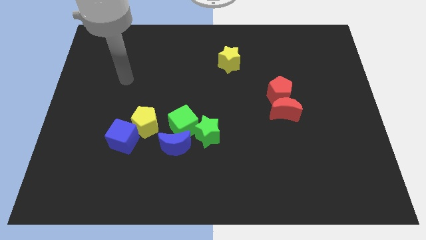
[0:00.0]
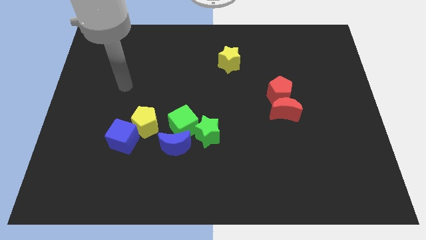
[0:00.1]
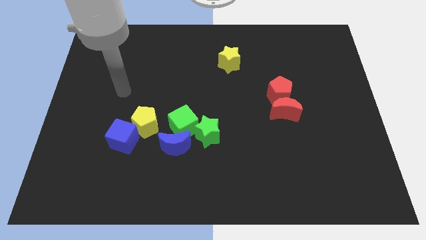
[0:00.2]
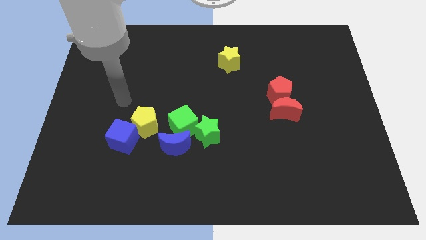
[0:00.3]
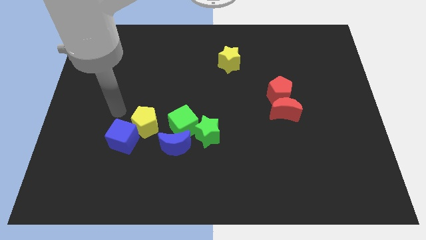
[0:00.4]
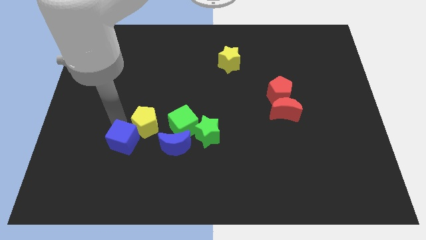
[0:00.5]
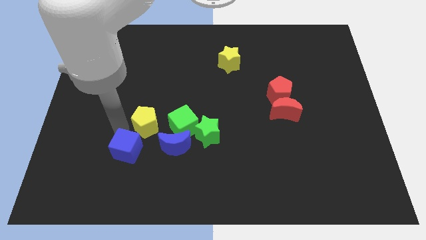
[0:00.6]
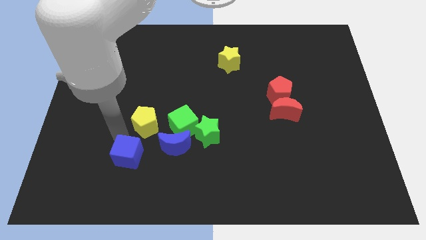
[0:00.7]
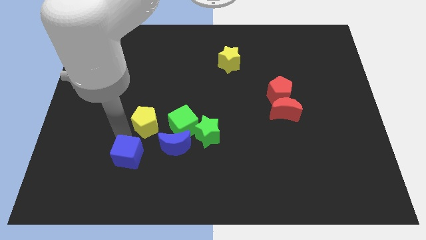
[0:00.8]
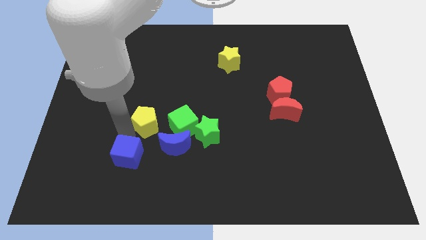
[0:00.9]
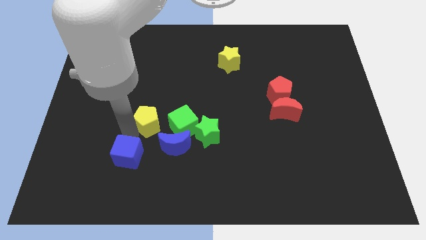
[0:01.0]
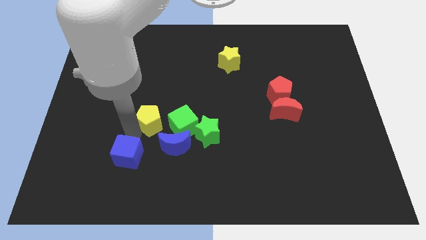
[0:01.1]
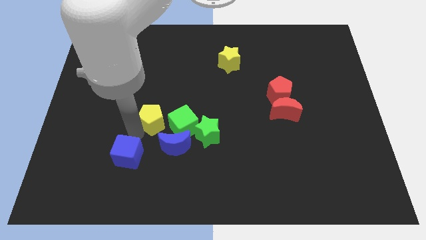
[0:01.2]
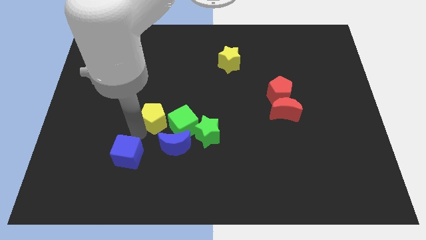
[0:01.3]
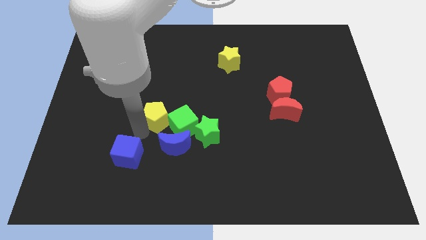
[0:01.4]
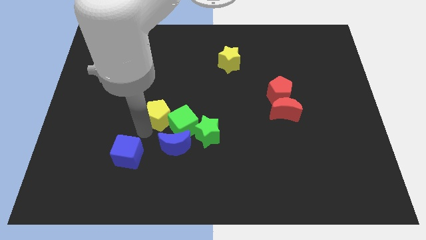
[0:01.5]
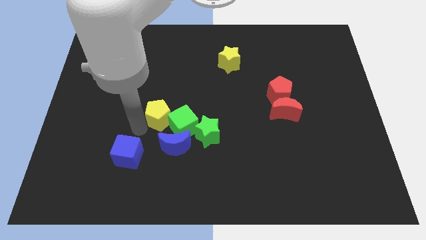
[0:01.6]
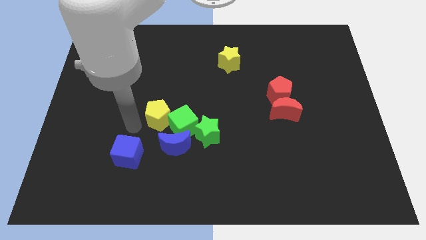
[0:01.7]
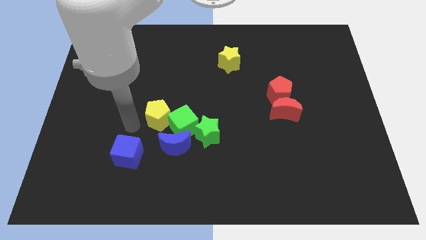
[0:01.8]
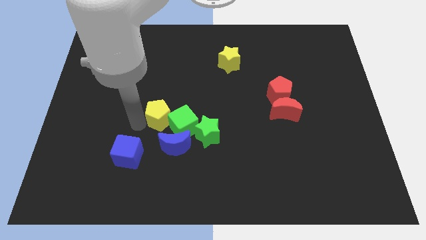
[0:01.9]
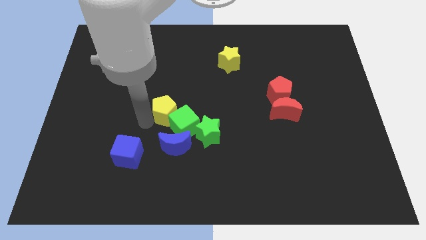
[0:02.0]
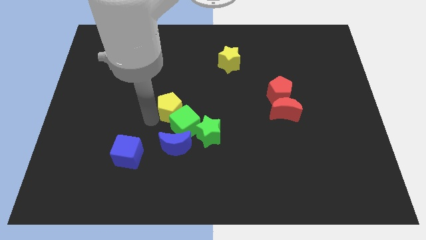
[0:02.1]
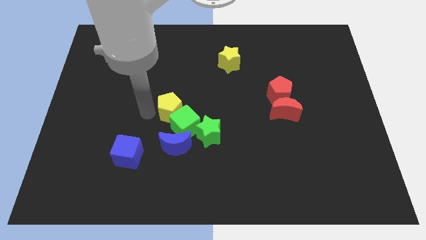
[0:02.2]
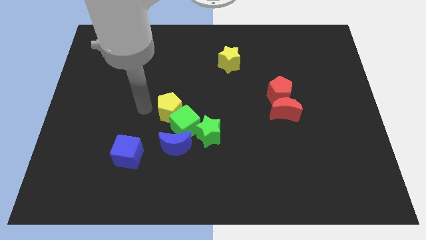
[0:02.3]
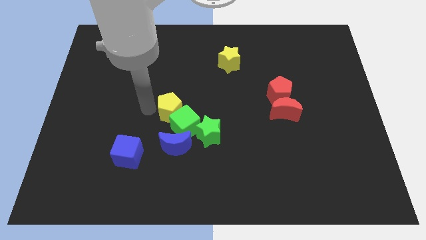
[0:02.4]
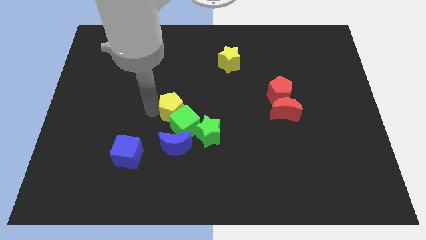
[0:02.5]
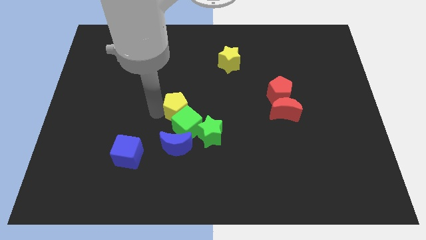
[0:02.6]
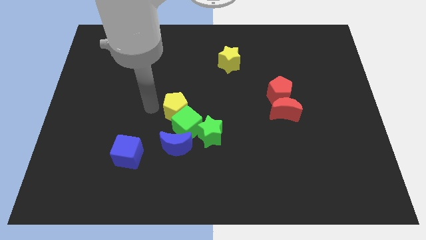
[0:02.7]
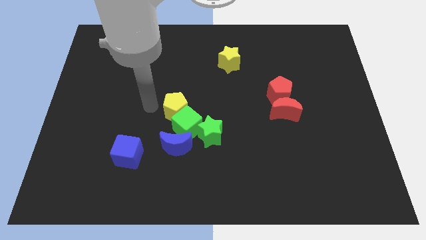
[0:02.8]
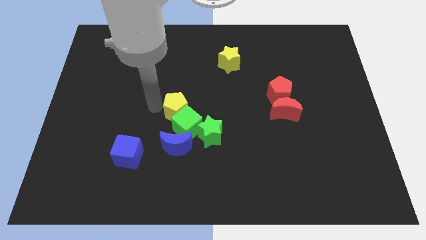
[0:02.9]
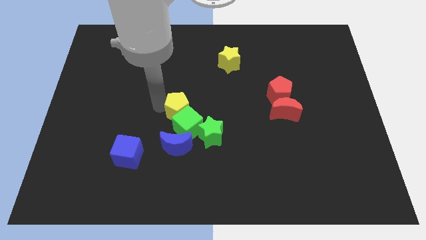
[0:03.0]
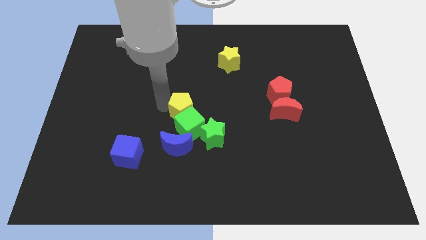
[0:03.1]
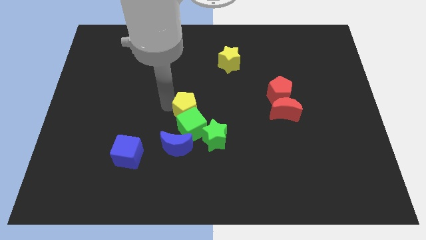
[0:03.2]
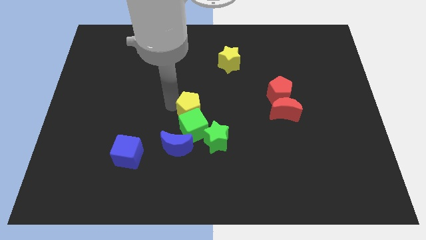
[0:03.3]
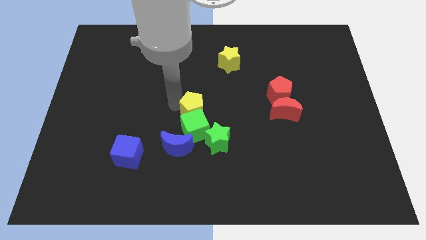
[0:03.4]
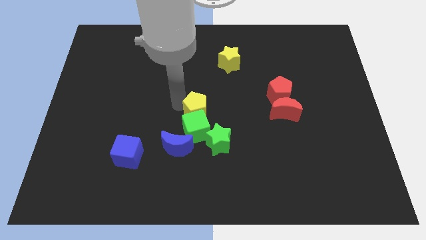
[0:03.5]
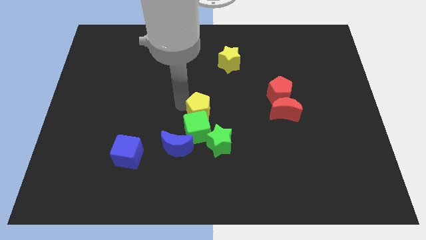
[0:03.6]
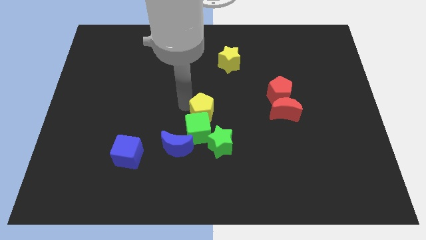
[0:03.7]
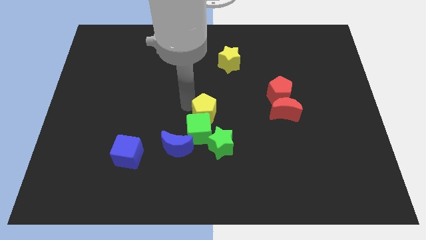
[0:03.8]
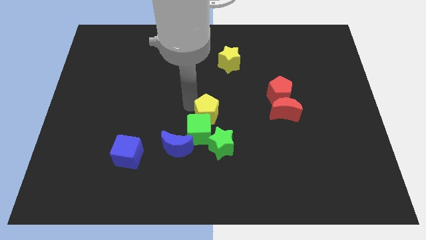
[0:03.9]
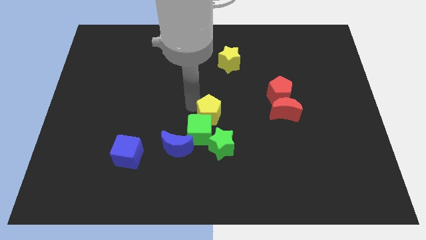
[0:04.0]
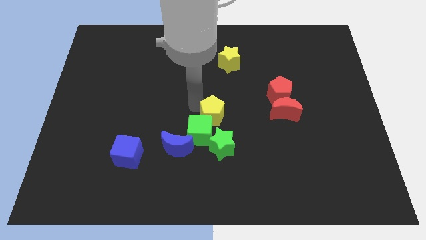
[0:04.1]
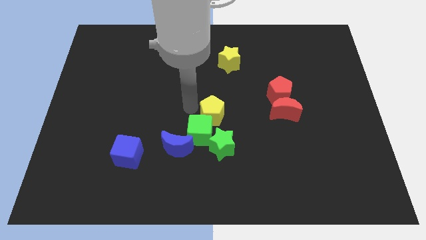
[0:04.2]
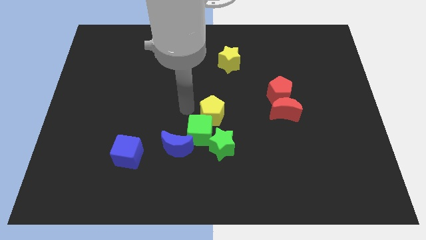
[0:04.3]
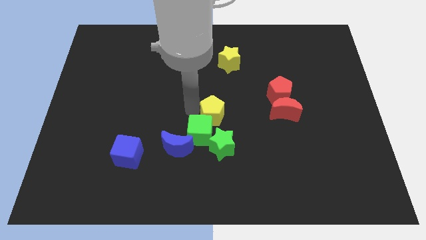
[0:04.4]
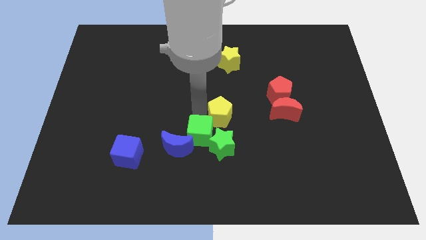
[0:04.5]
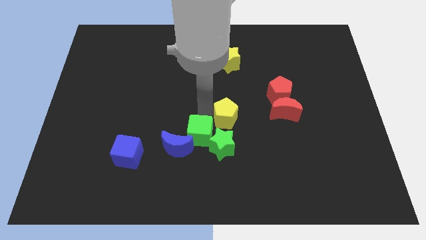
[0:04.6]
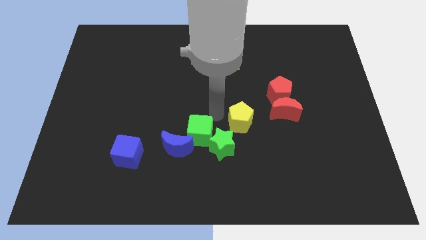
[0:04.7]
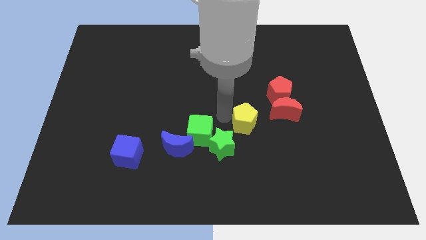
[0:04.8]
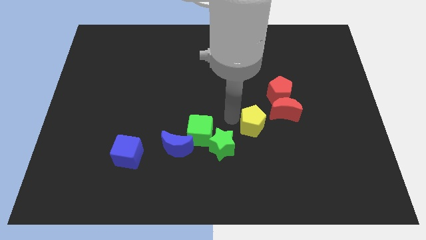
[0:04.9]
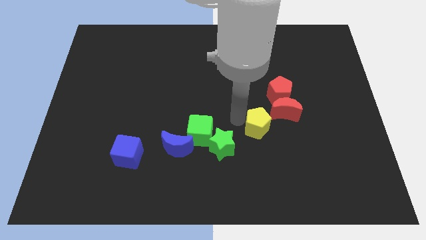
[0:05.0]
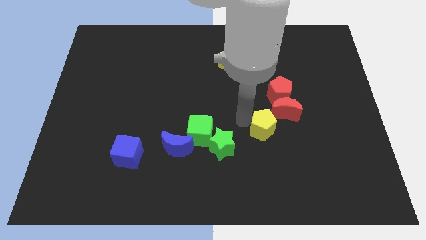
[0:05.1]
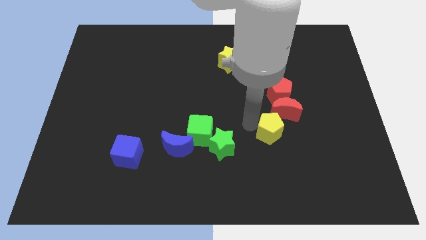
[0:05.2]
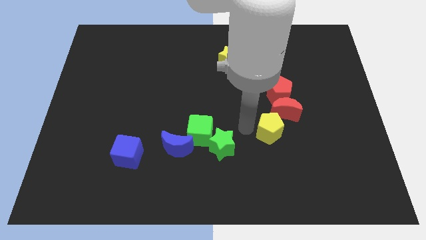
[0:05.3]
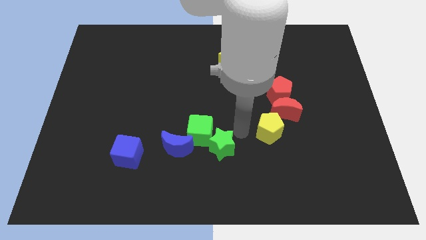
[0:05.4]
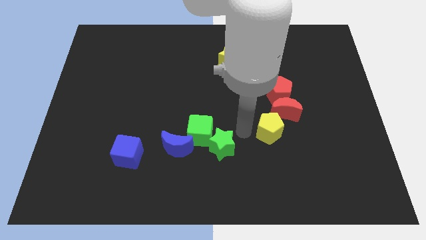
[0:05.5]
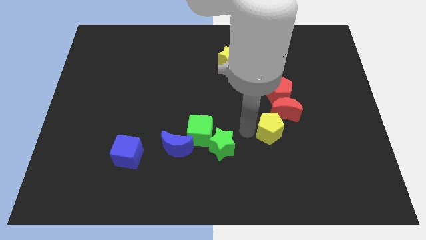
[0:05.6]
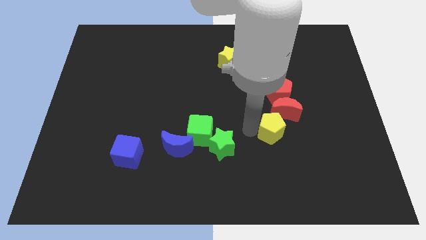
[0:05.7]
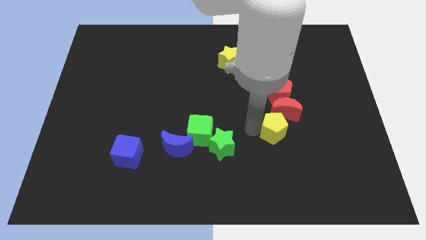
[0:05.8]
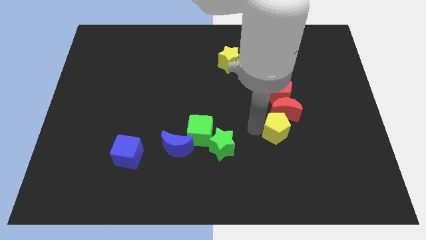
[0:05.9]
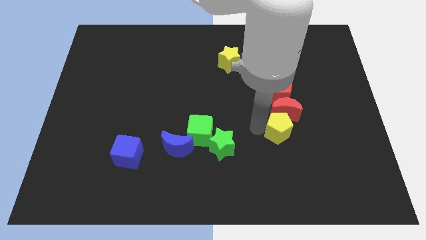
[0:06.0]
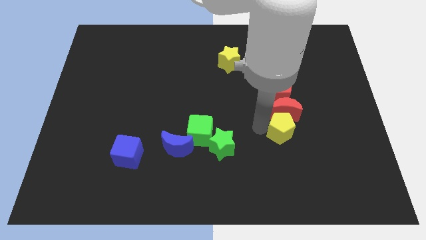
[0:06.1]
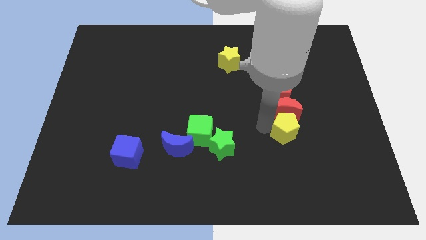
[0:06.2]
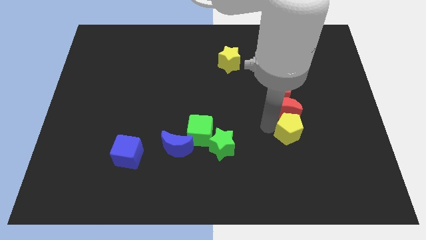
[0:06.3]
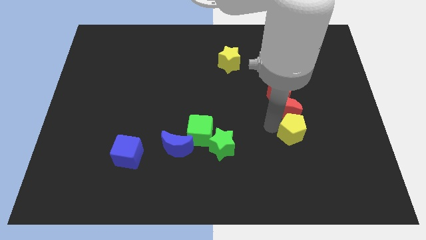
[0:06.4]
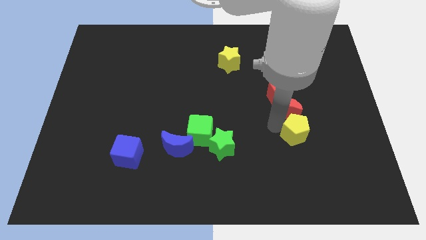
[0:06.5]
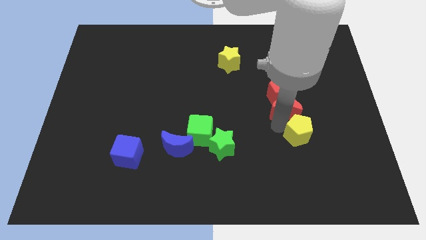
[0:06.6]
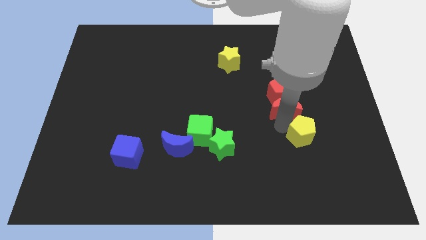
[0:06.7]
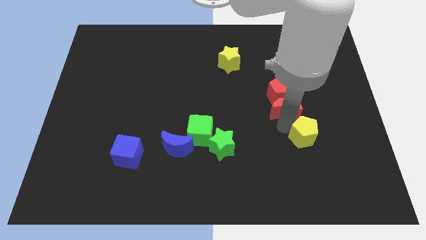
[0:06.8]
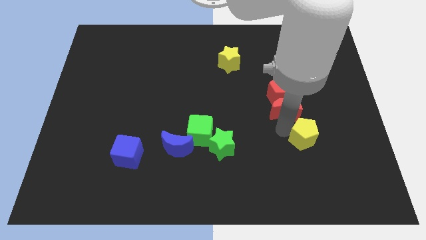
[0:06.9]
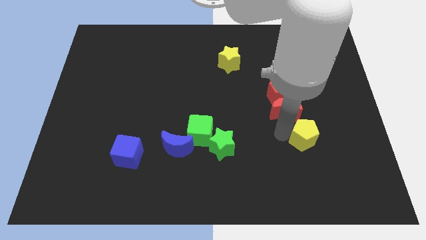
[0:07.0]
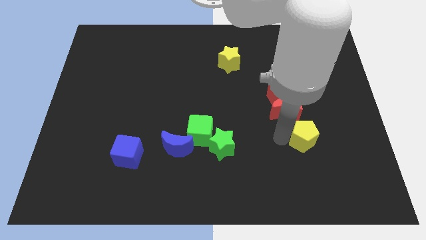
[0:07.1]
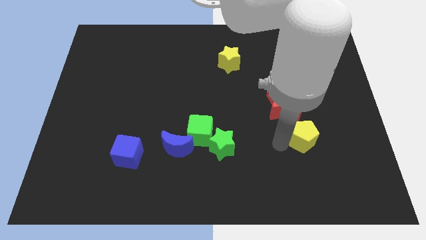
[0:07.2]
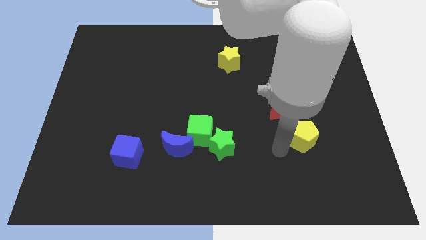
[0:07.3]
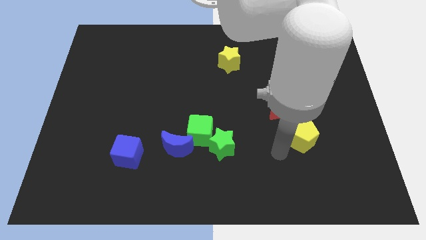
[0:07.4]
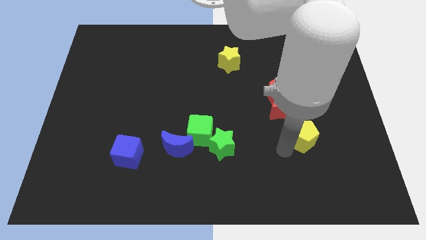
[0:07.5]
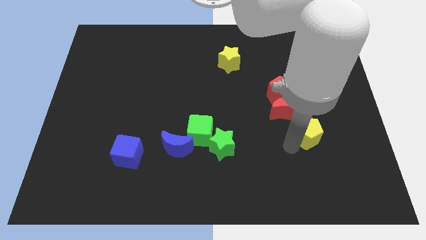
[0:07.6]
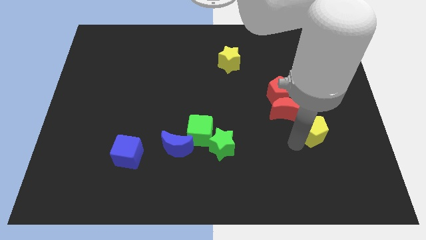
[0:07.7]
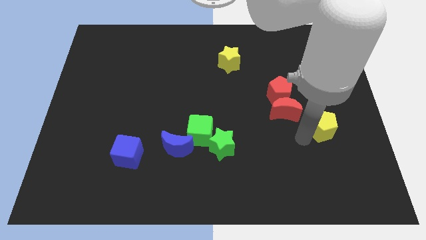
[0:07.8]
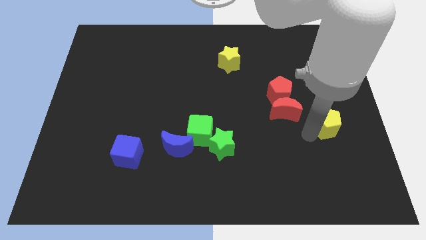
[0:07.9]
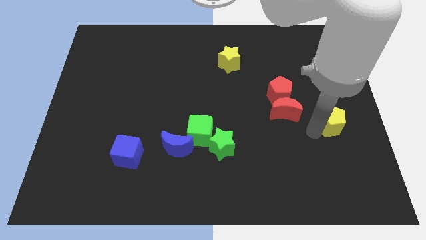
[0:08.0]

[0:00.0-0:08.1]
push the yellow pentagon to the right side of the board
